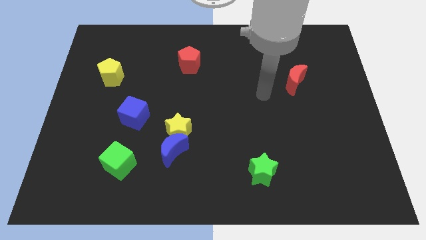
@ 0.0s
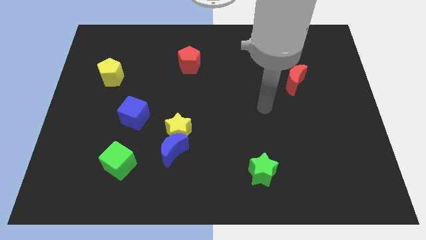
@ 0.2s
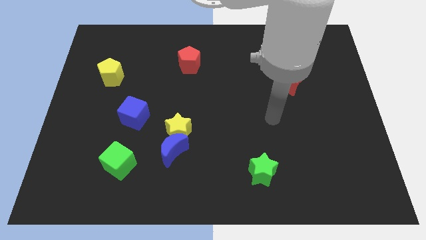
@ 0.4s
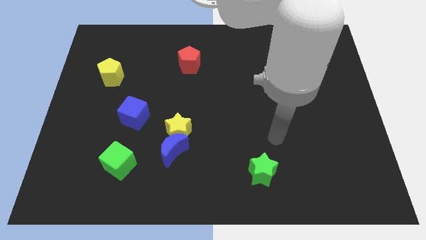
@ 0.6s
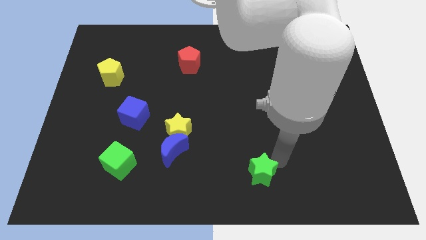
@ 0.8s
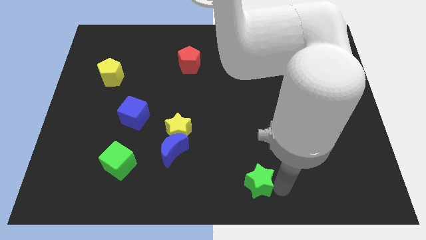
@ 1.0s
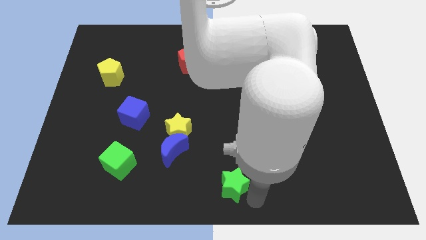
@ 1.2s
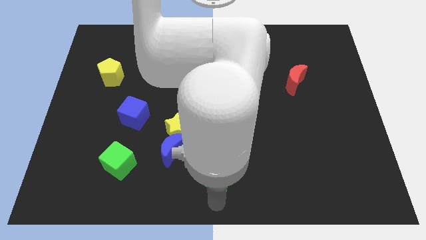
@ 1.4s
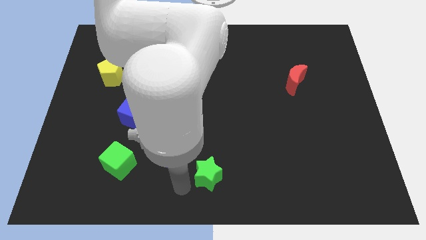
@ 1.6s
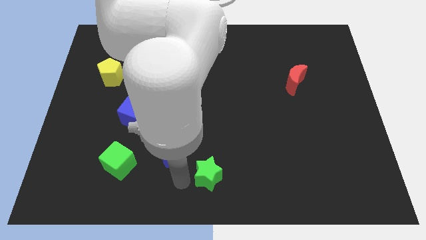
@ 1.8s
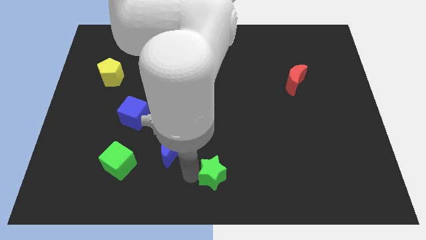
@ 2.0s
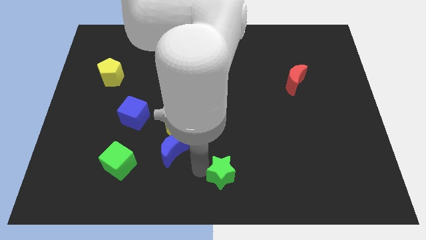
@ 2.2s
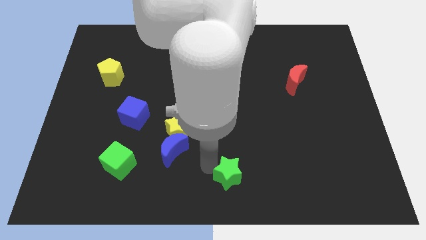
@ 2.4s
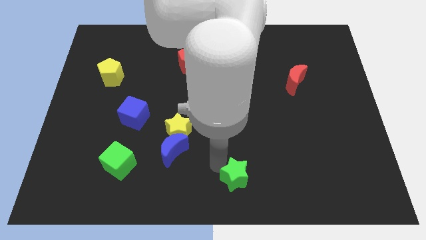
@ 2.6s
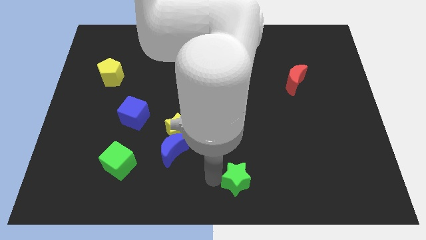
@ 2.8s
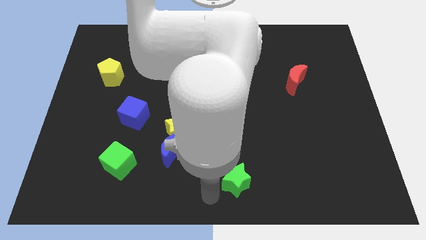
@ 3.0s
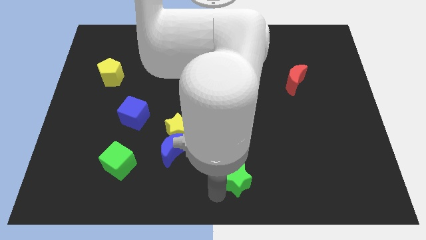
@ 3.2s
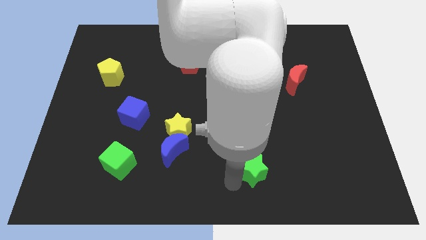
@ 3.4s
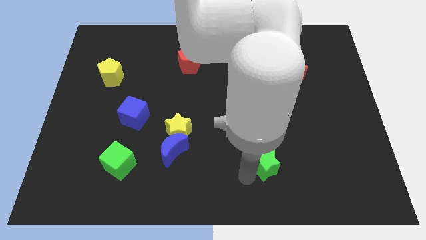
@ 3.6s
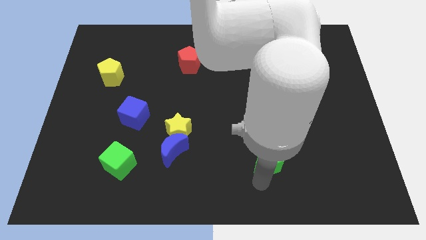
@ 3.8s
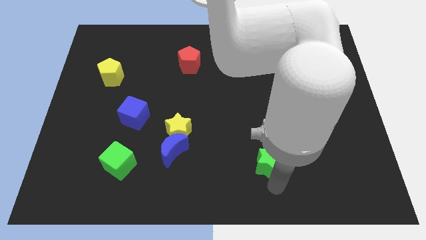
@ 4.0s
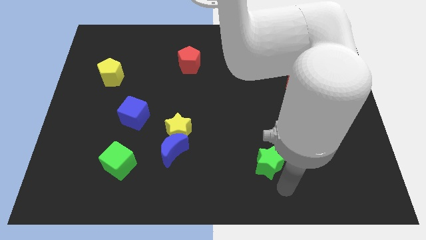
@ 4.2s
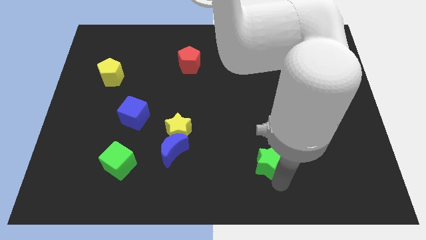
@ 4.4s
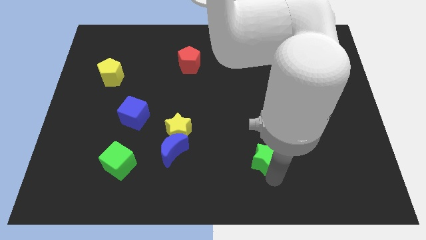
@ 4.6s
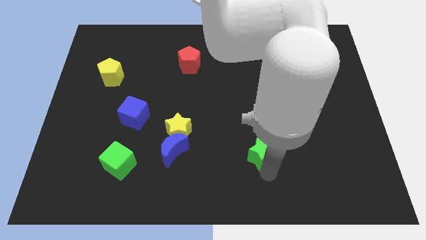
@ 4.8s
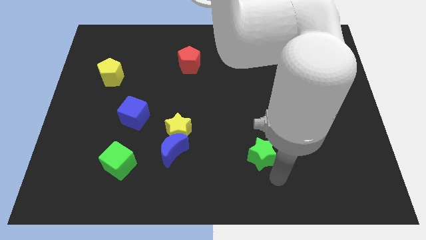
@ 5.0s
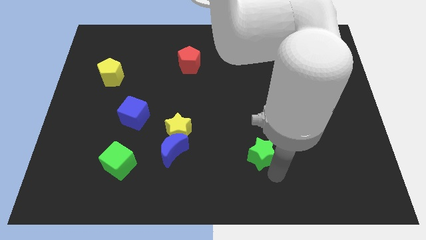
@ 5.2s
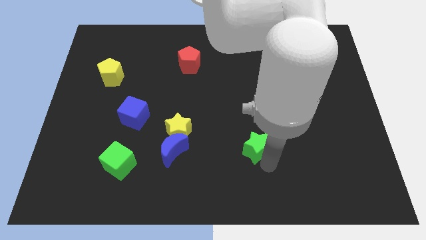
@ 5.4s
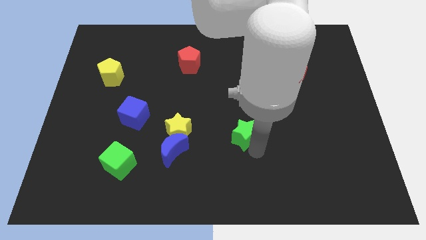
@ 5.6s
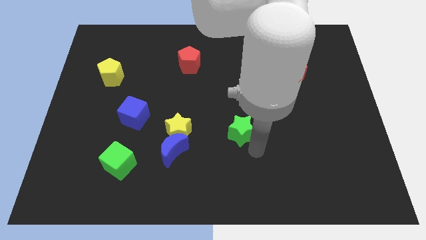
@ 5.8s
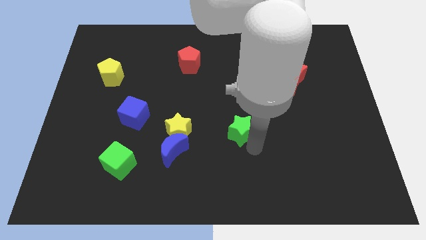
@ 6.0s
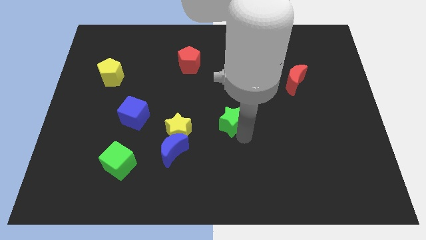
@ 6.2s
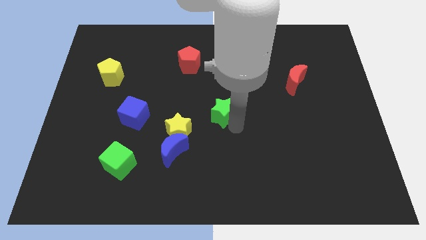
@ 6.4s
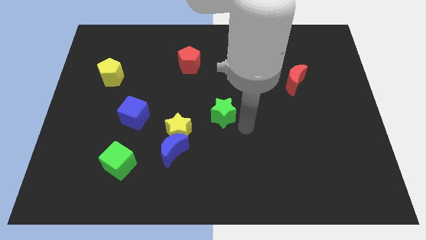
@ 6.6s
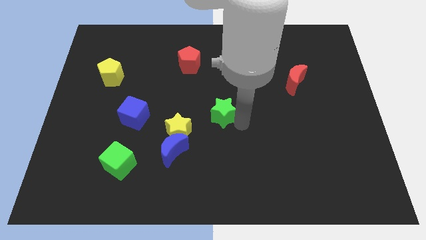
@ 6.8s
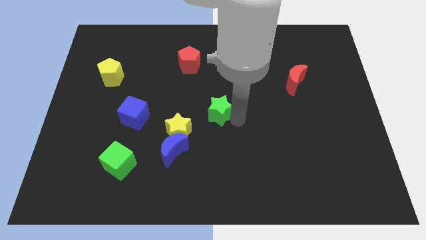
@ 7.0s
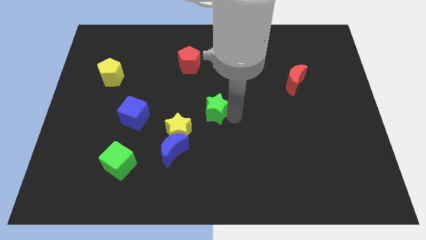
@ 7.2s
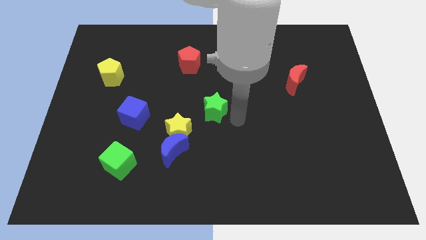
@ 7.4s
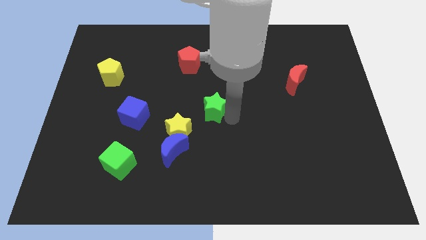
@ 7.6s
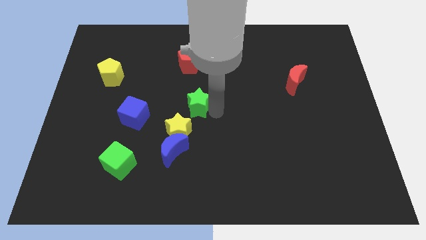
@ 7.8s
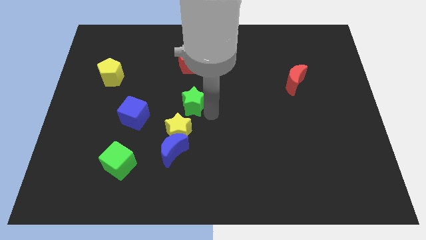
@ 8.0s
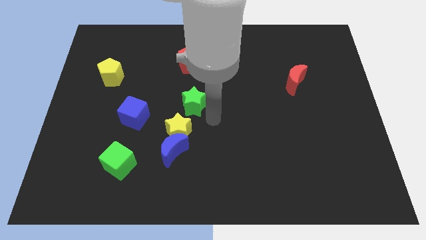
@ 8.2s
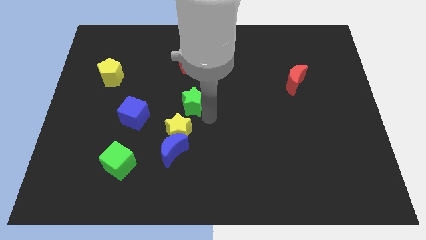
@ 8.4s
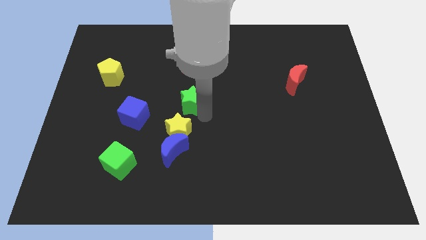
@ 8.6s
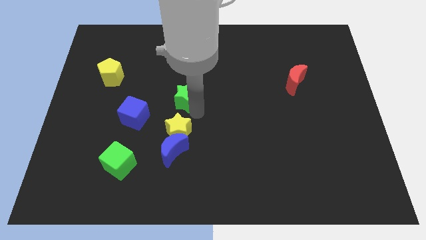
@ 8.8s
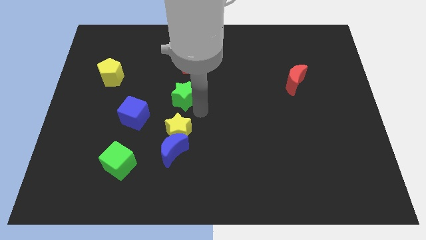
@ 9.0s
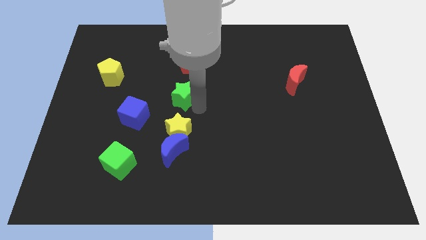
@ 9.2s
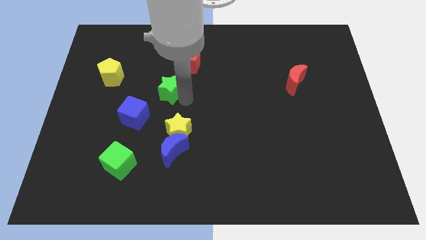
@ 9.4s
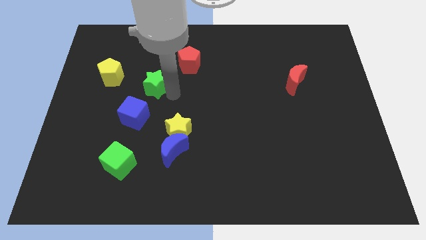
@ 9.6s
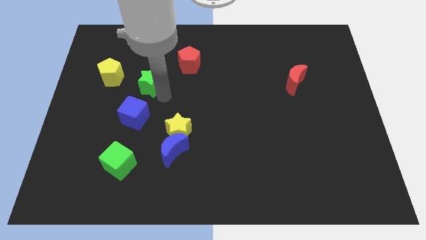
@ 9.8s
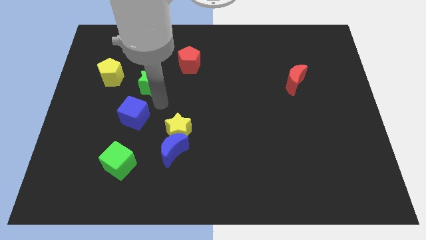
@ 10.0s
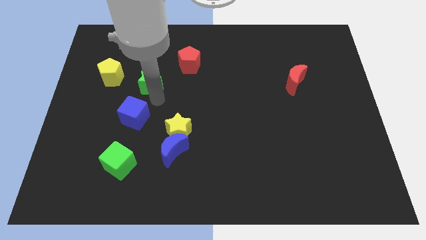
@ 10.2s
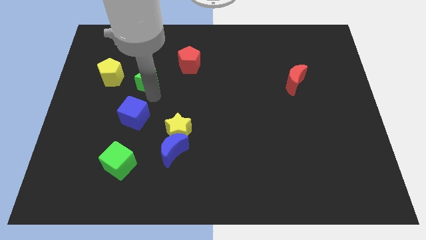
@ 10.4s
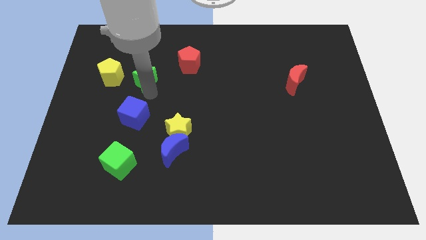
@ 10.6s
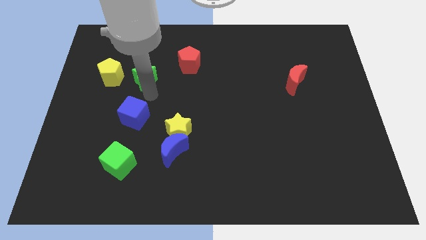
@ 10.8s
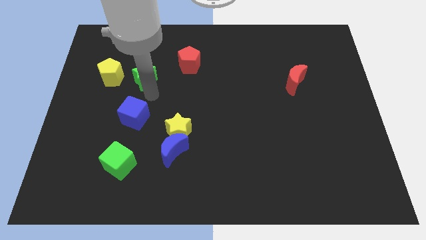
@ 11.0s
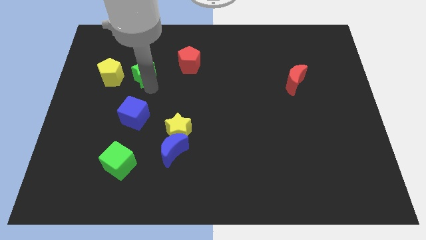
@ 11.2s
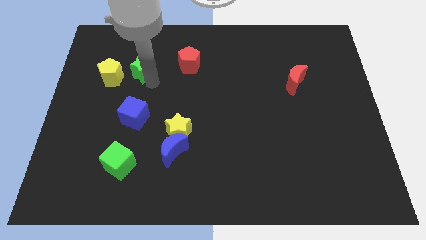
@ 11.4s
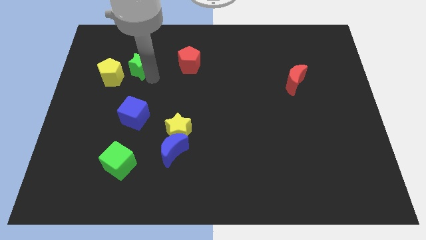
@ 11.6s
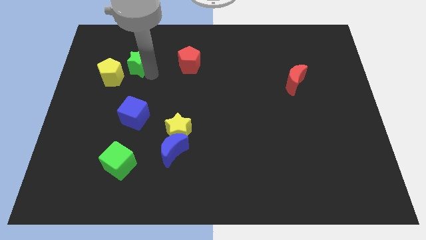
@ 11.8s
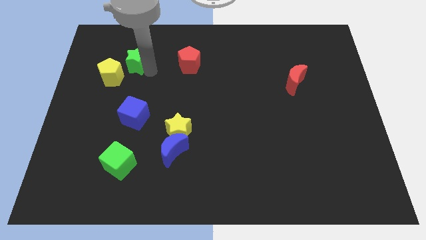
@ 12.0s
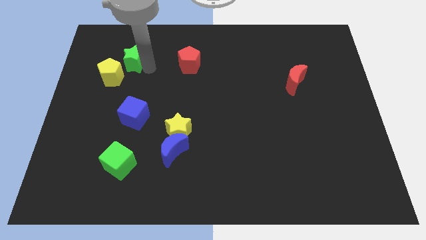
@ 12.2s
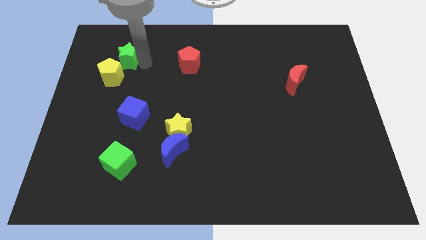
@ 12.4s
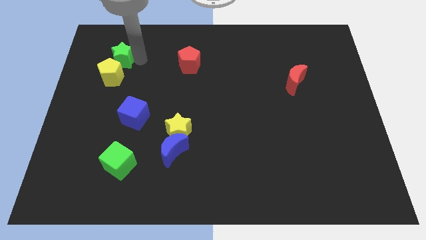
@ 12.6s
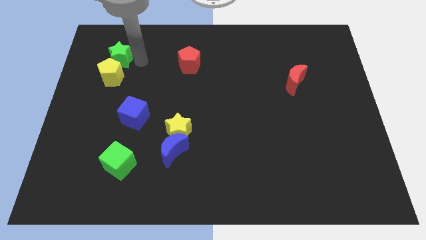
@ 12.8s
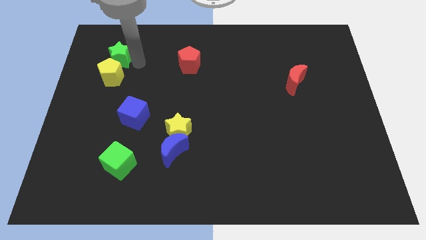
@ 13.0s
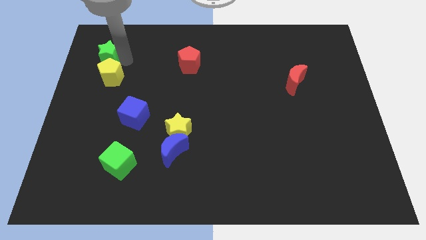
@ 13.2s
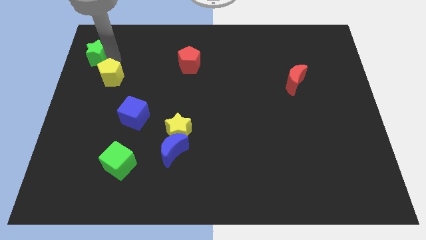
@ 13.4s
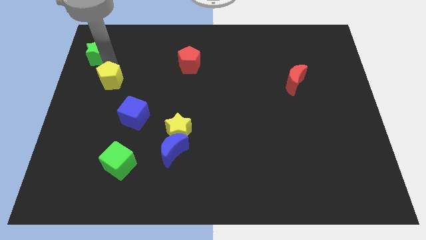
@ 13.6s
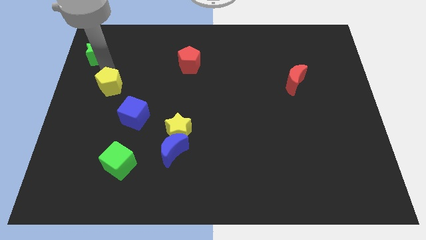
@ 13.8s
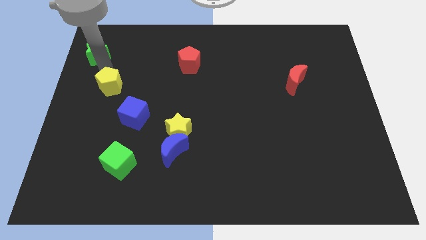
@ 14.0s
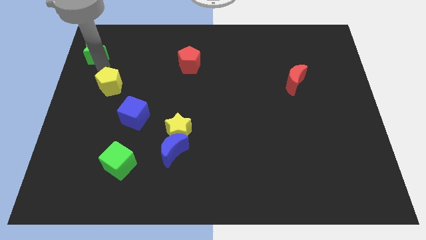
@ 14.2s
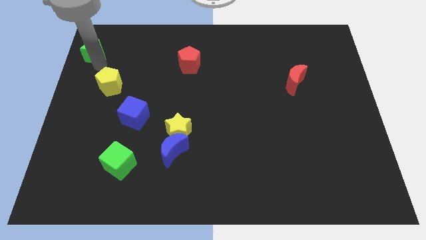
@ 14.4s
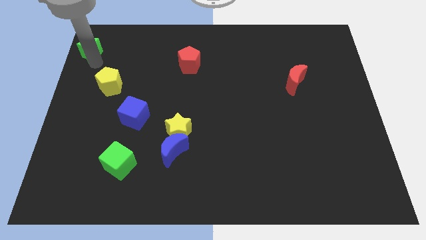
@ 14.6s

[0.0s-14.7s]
put the green star to the top left of the board
